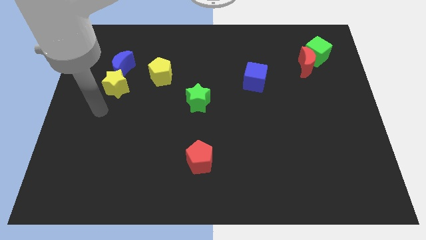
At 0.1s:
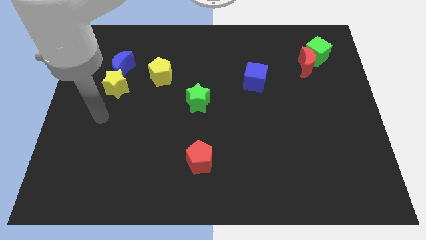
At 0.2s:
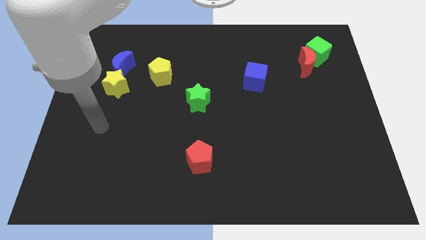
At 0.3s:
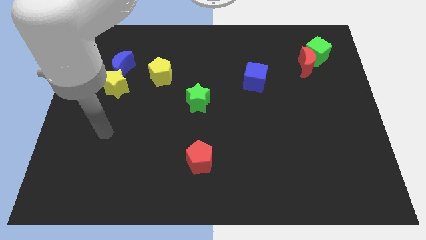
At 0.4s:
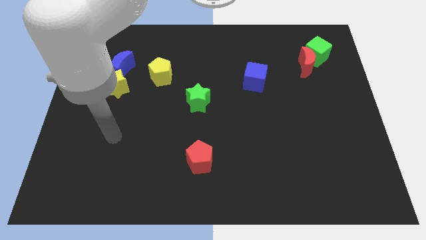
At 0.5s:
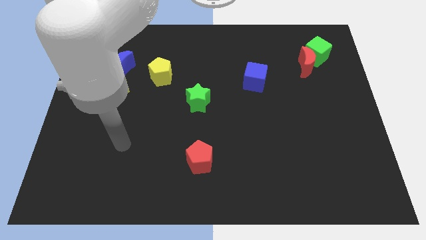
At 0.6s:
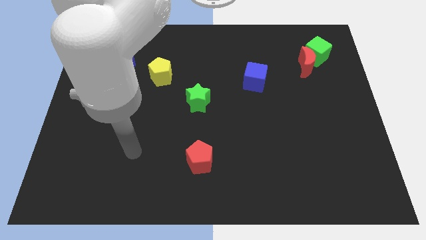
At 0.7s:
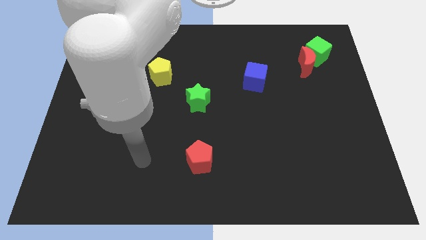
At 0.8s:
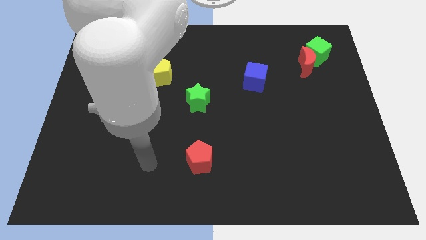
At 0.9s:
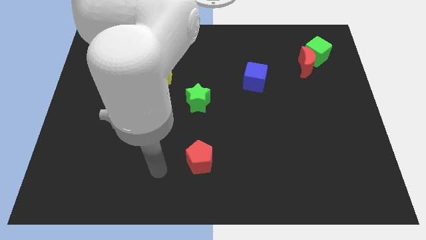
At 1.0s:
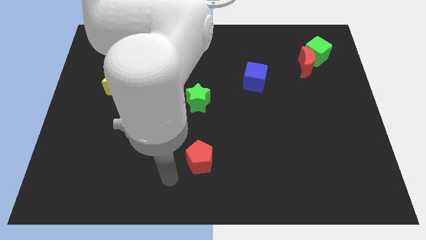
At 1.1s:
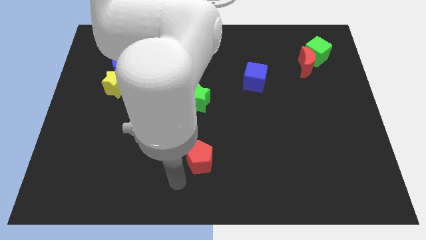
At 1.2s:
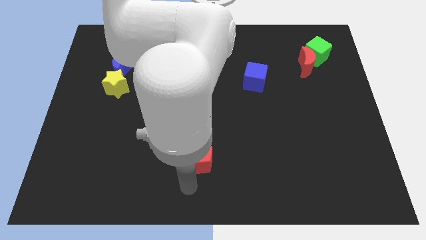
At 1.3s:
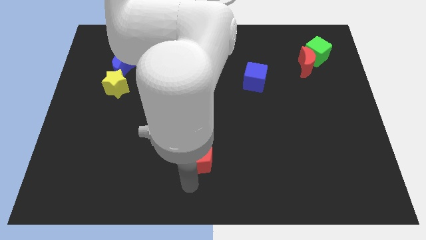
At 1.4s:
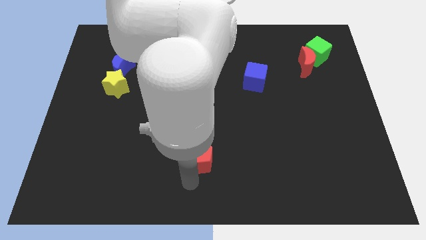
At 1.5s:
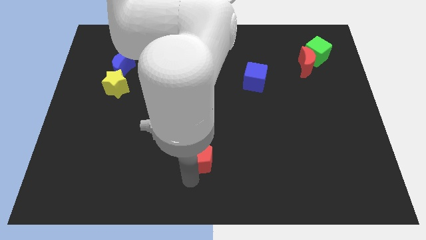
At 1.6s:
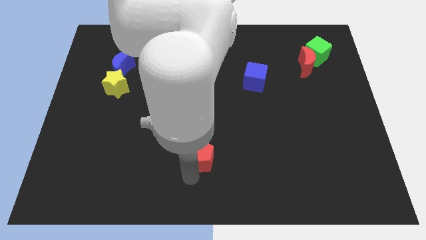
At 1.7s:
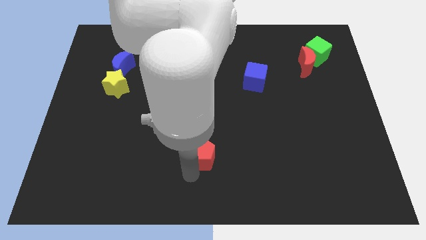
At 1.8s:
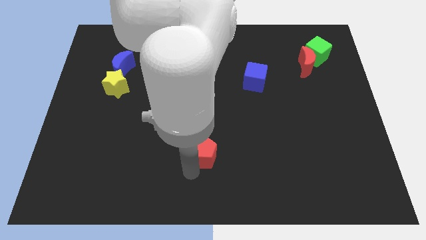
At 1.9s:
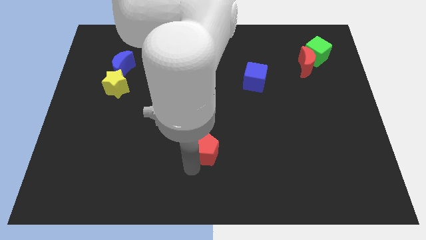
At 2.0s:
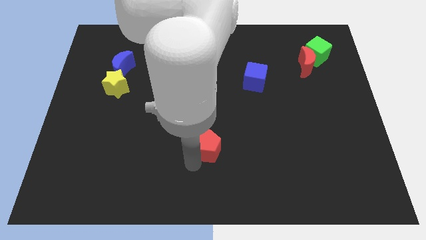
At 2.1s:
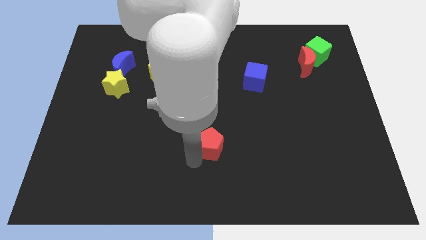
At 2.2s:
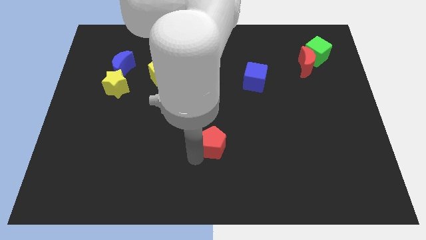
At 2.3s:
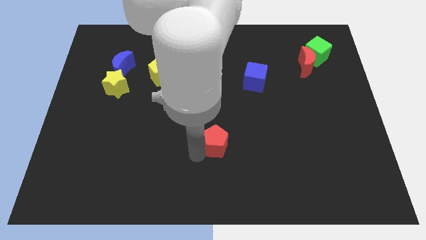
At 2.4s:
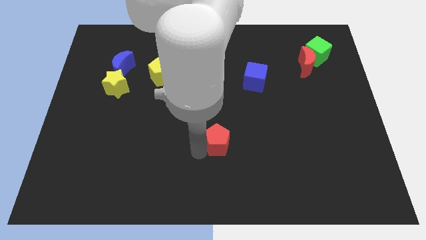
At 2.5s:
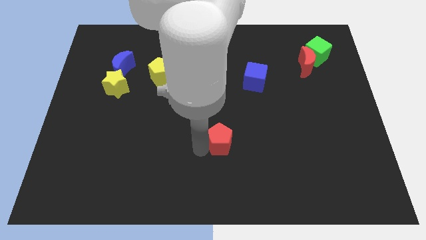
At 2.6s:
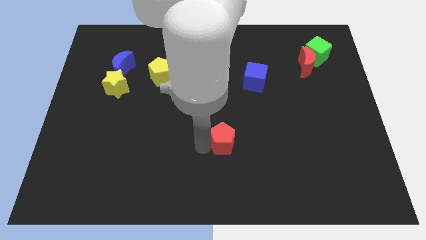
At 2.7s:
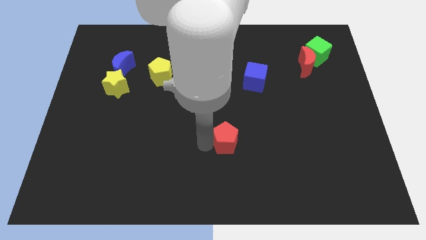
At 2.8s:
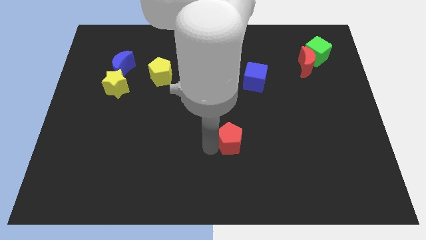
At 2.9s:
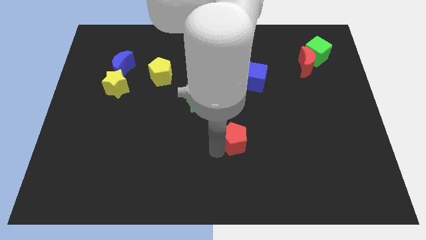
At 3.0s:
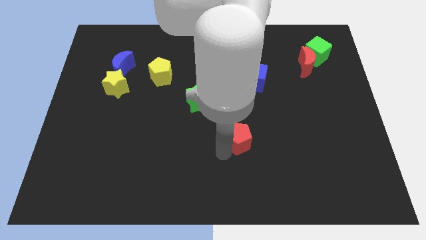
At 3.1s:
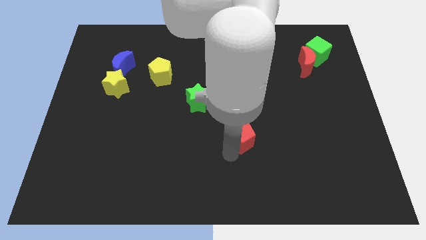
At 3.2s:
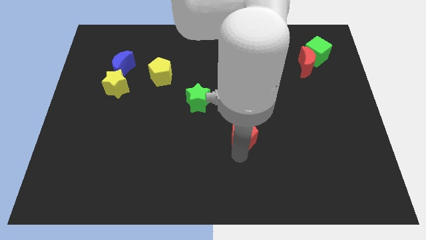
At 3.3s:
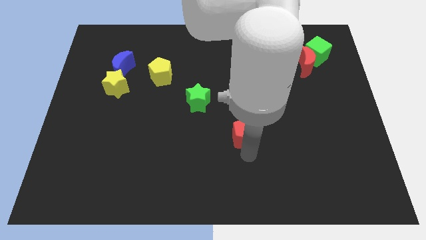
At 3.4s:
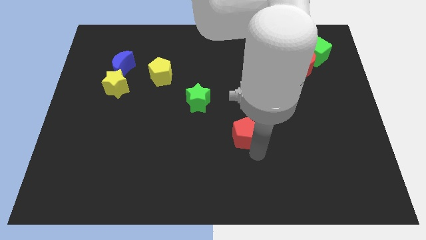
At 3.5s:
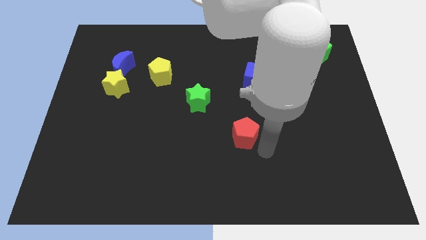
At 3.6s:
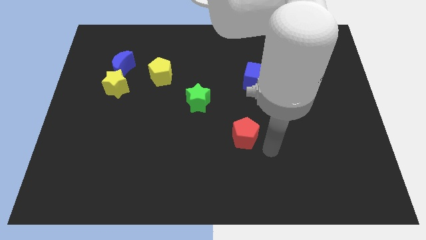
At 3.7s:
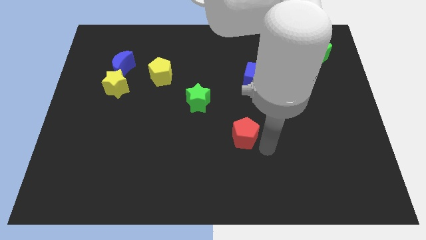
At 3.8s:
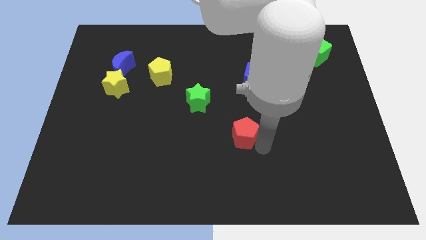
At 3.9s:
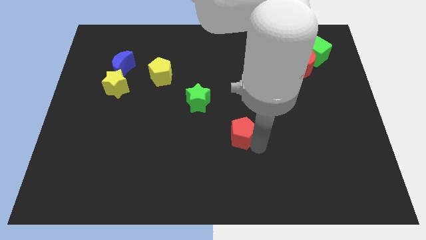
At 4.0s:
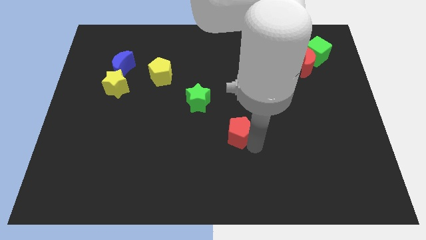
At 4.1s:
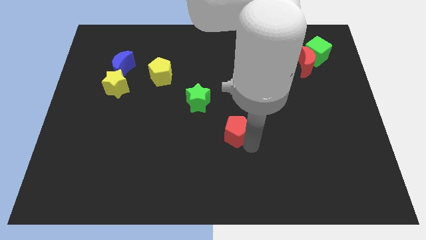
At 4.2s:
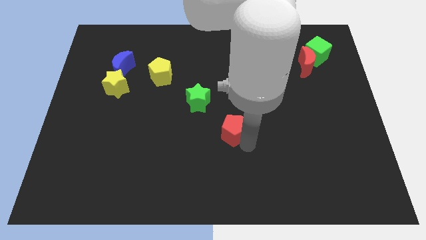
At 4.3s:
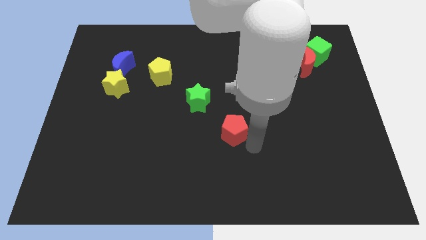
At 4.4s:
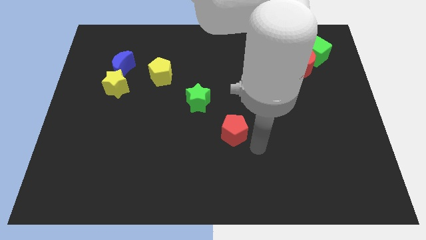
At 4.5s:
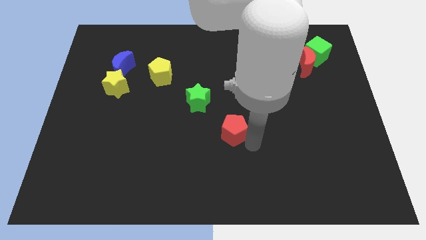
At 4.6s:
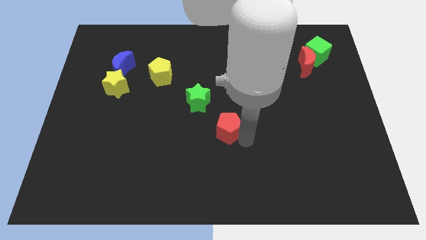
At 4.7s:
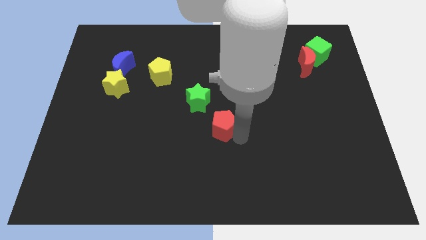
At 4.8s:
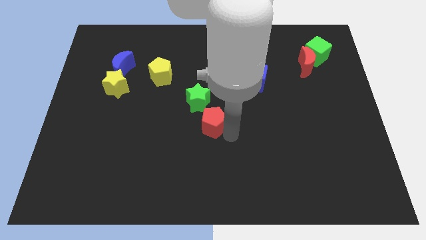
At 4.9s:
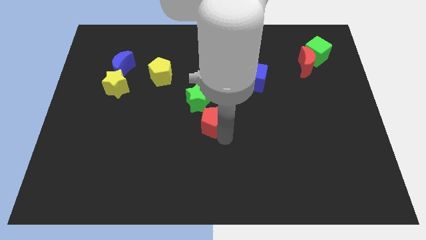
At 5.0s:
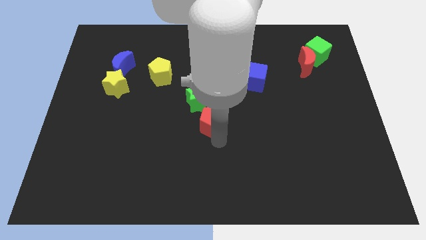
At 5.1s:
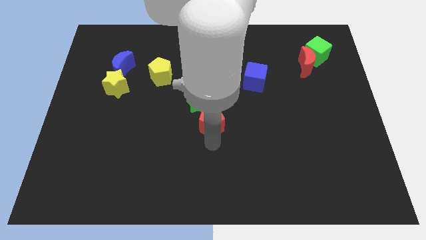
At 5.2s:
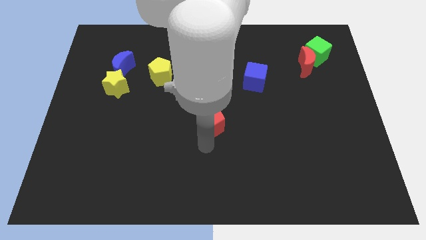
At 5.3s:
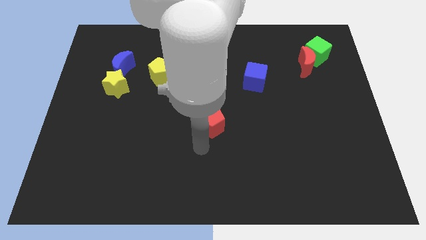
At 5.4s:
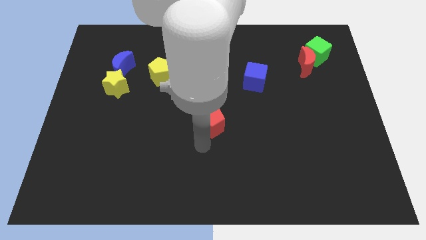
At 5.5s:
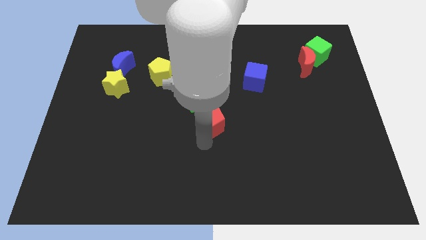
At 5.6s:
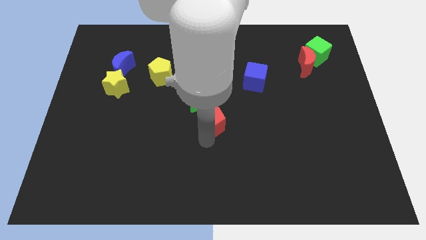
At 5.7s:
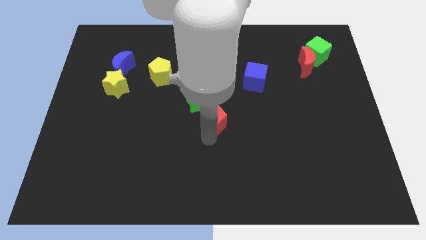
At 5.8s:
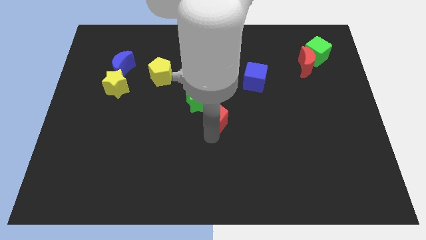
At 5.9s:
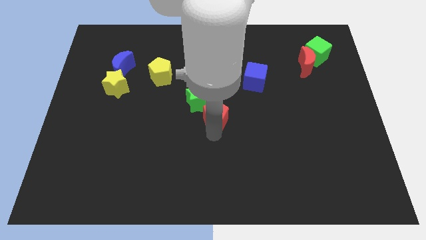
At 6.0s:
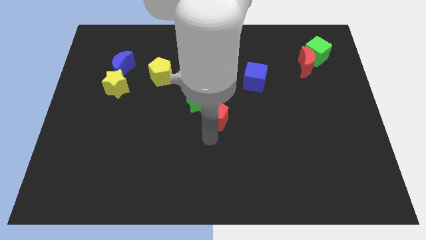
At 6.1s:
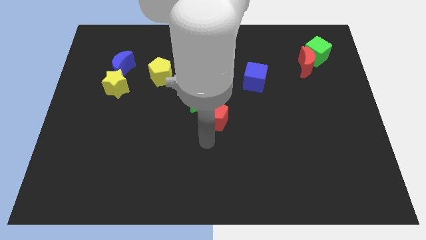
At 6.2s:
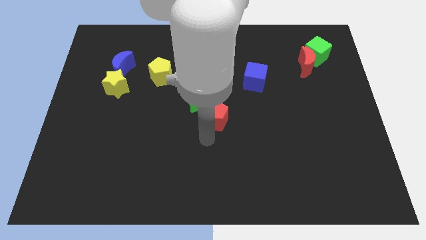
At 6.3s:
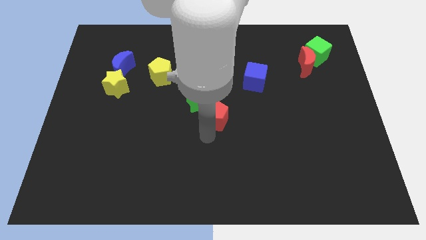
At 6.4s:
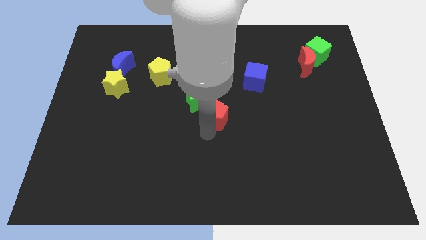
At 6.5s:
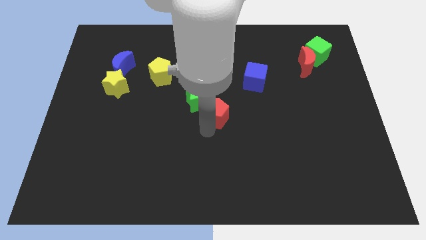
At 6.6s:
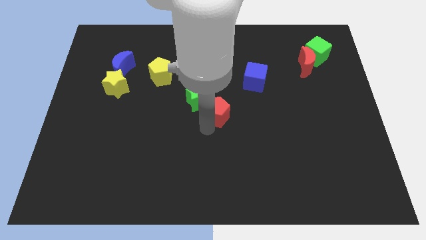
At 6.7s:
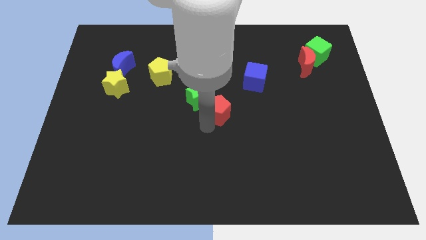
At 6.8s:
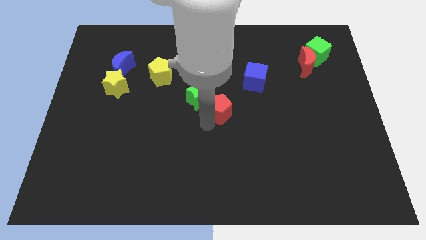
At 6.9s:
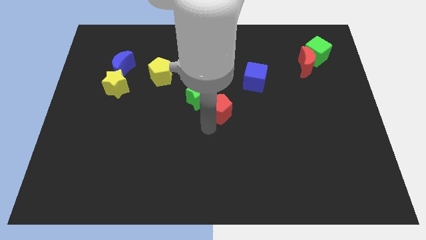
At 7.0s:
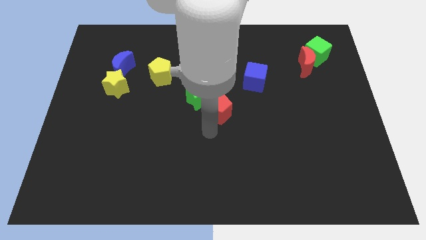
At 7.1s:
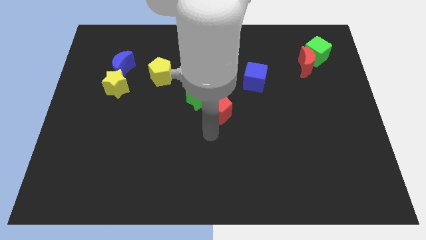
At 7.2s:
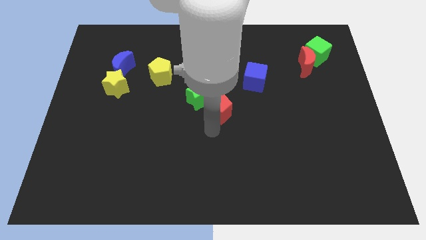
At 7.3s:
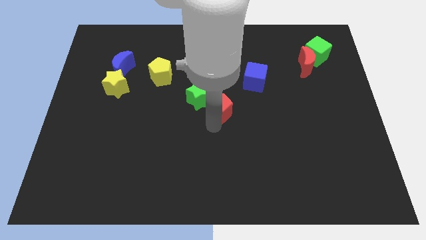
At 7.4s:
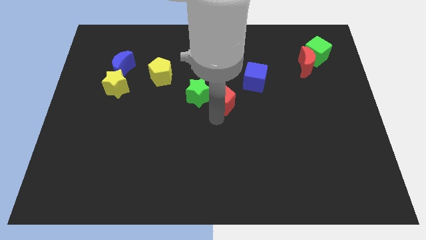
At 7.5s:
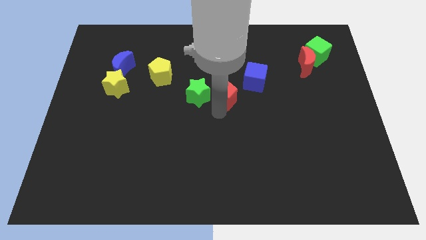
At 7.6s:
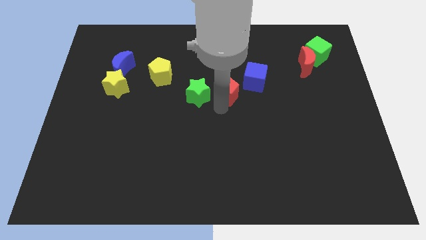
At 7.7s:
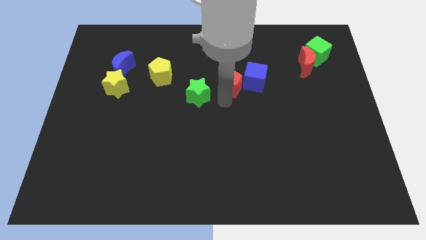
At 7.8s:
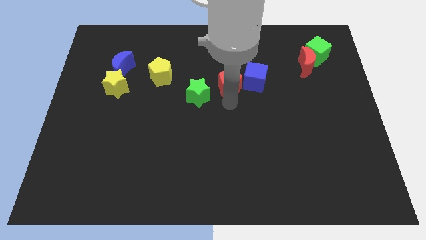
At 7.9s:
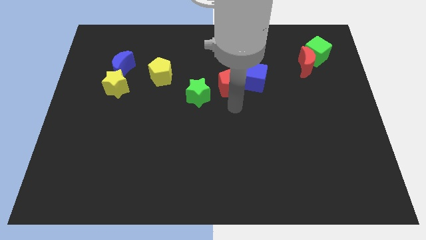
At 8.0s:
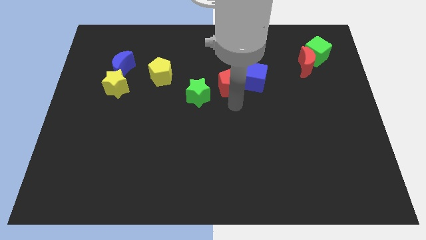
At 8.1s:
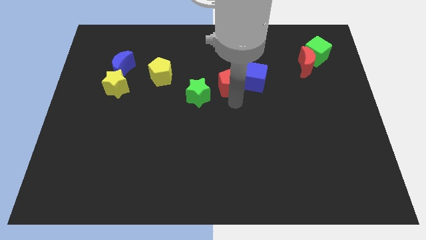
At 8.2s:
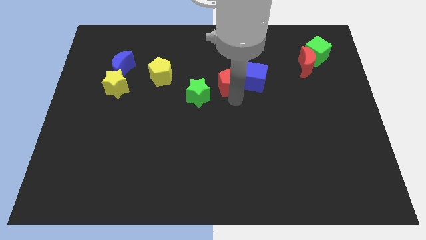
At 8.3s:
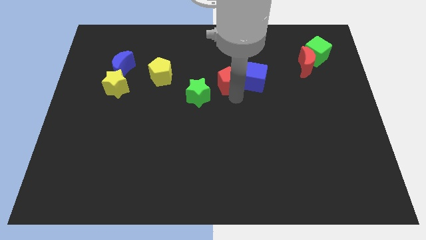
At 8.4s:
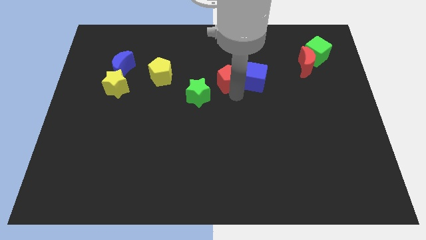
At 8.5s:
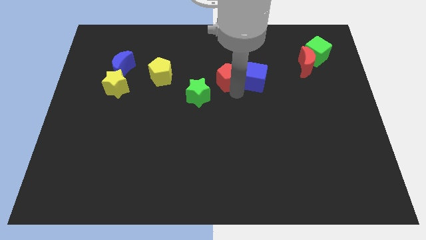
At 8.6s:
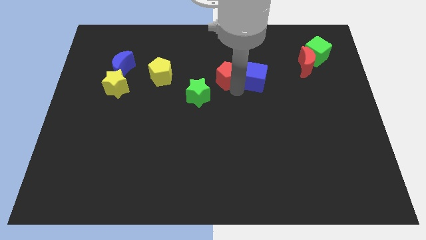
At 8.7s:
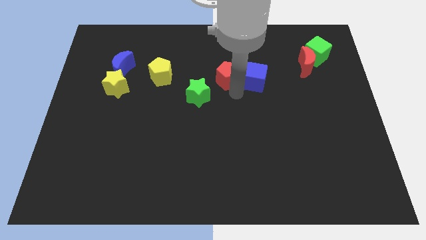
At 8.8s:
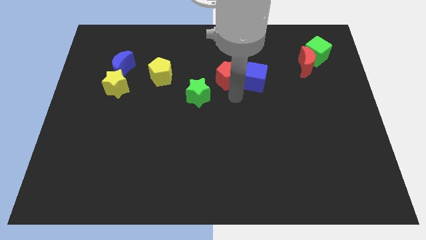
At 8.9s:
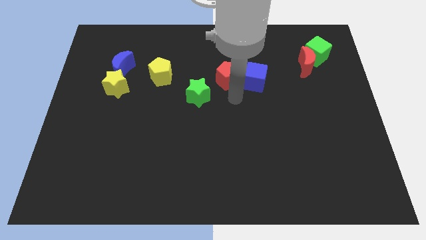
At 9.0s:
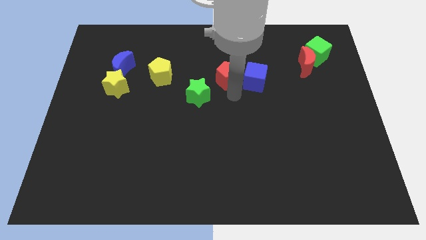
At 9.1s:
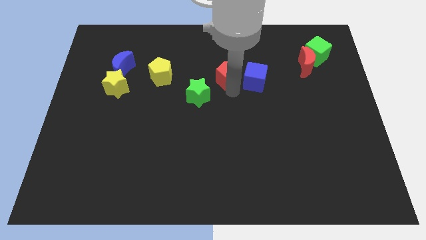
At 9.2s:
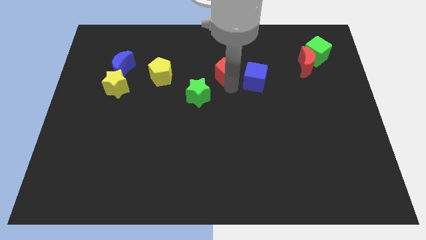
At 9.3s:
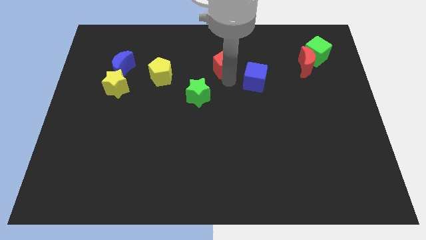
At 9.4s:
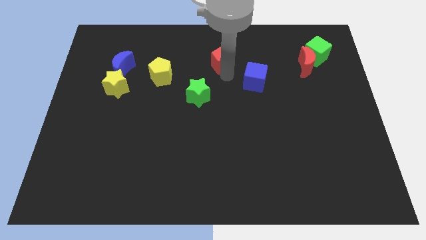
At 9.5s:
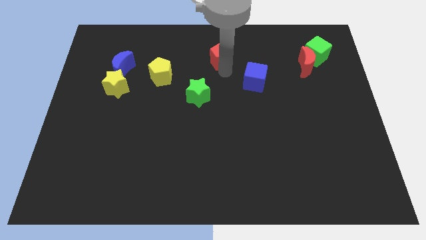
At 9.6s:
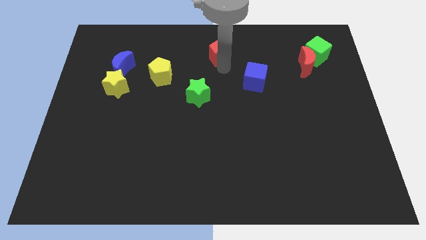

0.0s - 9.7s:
put the red pentagon to the top
